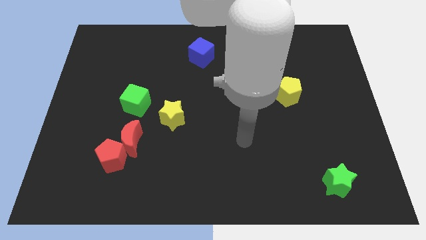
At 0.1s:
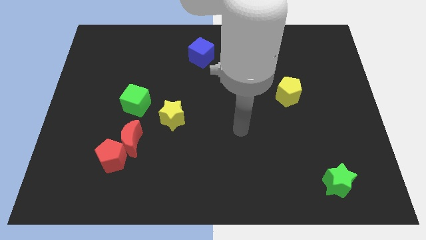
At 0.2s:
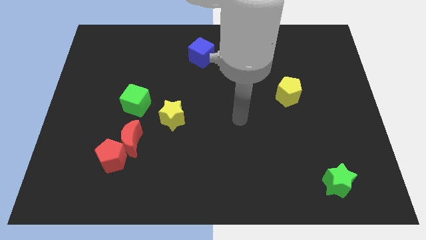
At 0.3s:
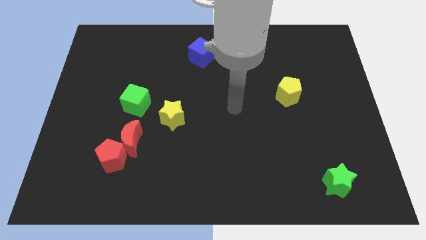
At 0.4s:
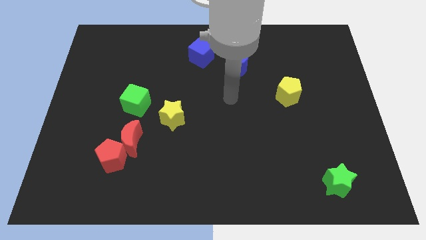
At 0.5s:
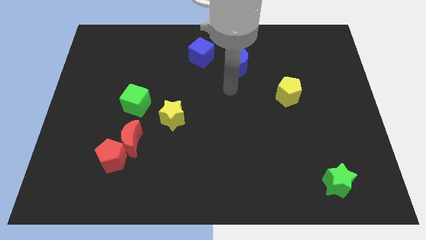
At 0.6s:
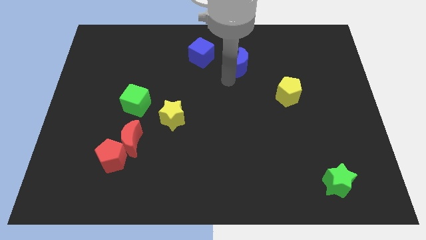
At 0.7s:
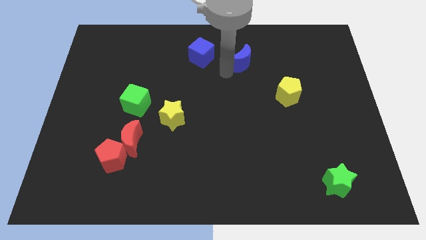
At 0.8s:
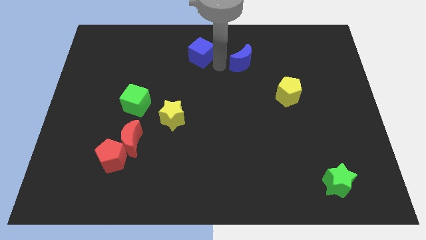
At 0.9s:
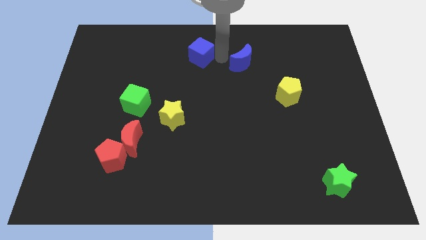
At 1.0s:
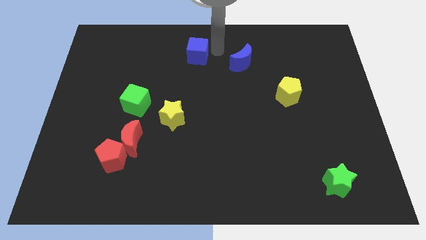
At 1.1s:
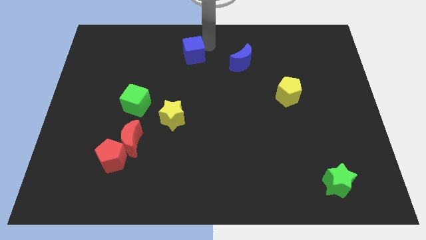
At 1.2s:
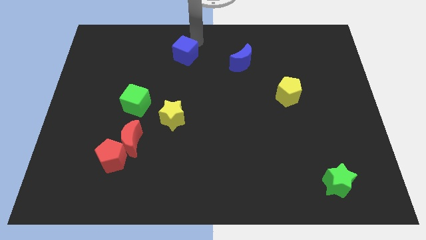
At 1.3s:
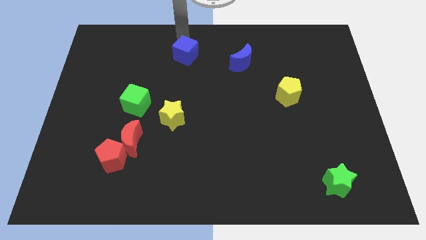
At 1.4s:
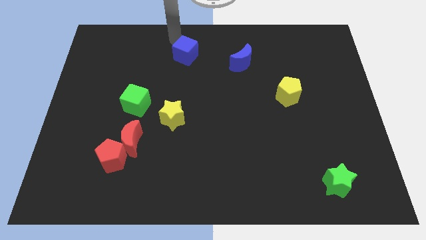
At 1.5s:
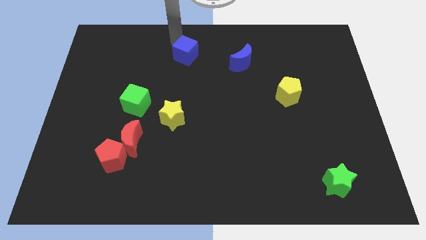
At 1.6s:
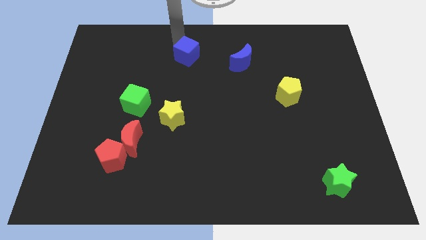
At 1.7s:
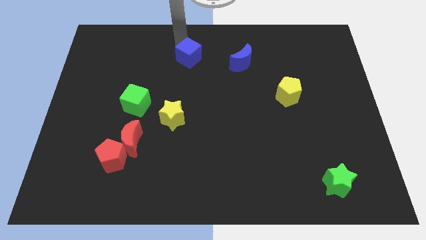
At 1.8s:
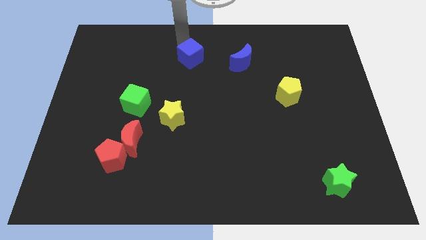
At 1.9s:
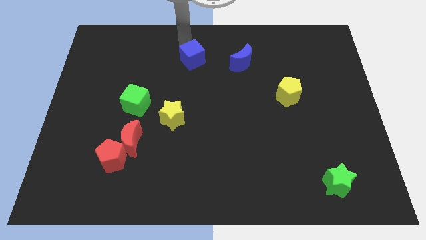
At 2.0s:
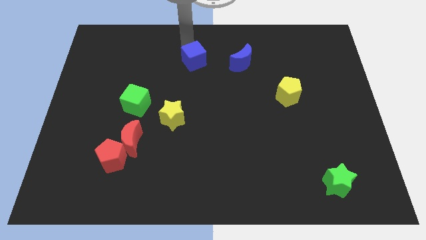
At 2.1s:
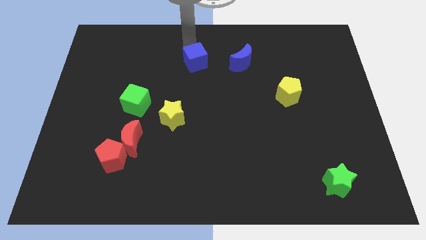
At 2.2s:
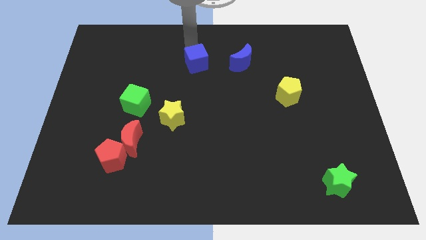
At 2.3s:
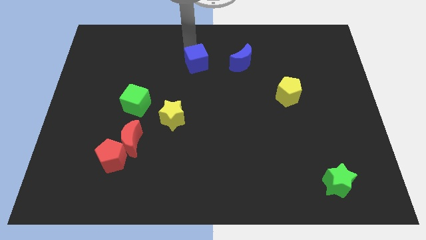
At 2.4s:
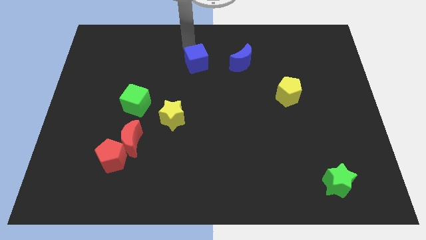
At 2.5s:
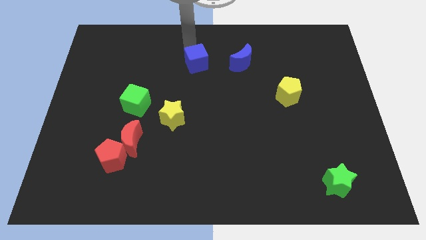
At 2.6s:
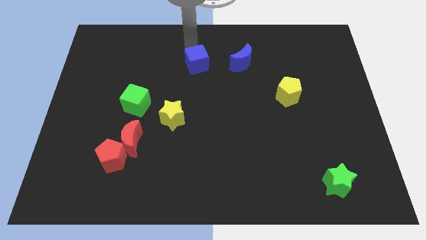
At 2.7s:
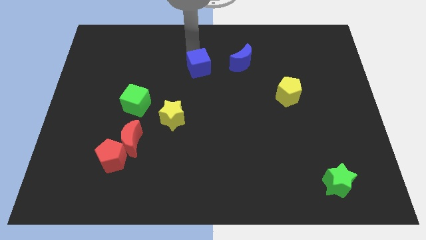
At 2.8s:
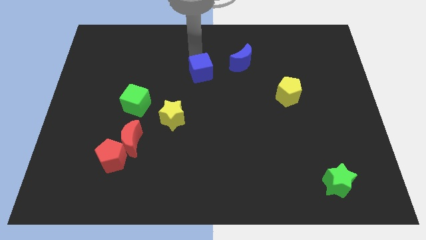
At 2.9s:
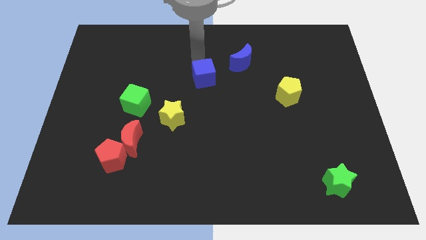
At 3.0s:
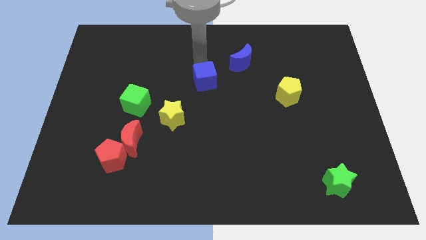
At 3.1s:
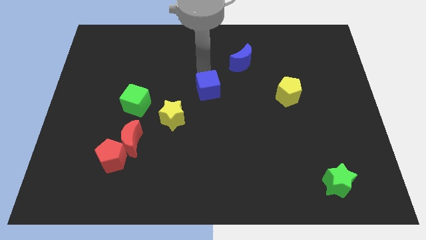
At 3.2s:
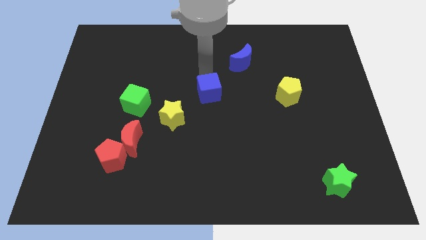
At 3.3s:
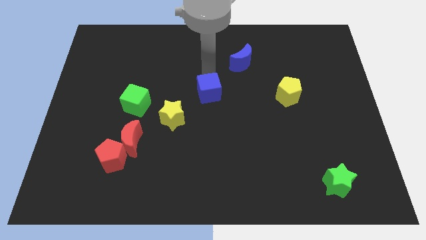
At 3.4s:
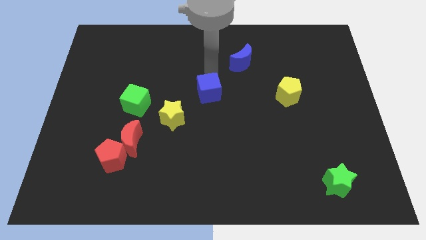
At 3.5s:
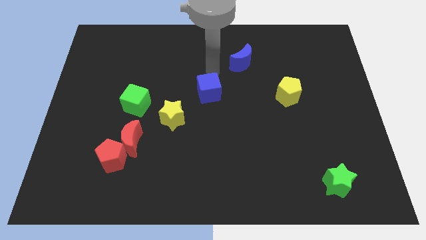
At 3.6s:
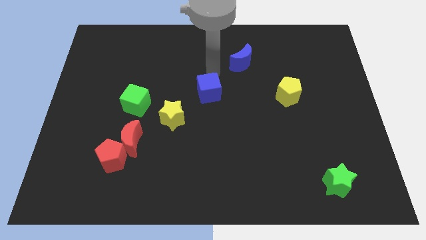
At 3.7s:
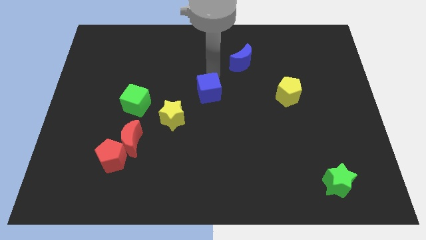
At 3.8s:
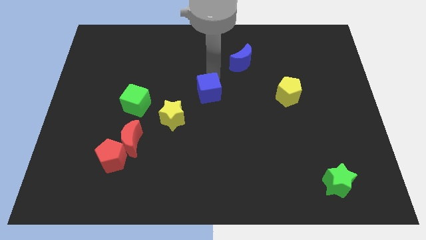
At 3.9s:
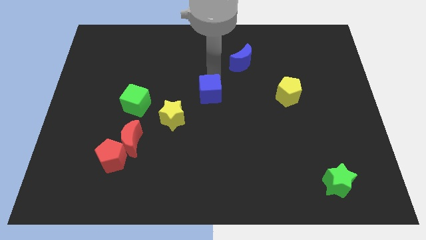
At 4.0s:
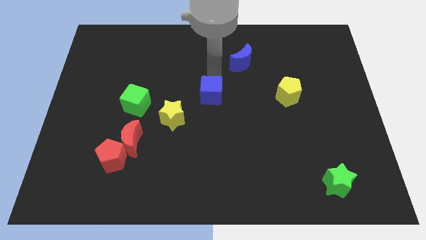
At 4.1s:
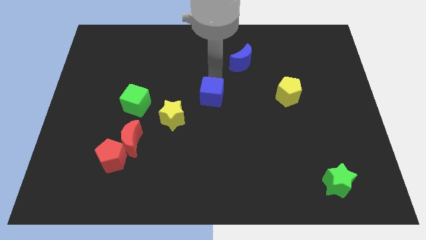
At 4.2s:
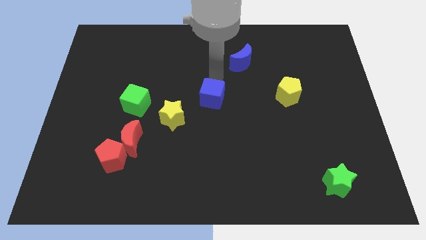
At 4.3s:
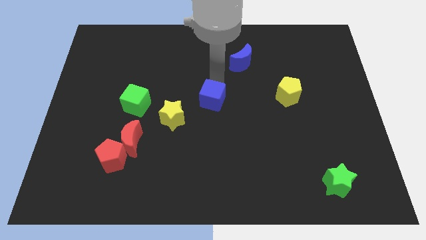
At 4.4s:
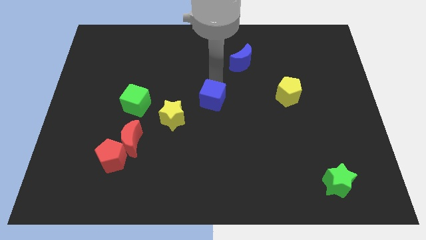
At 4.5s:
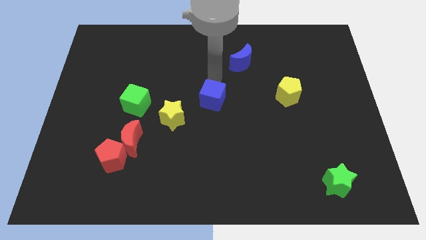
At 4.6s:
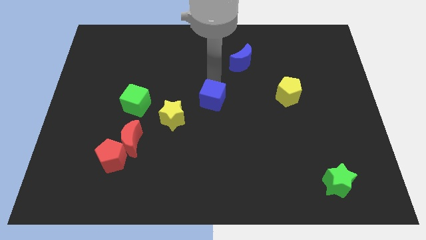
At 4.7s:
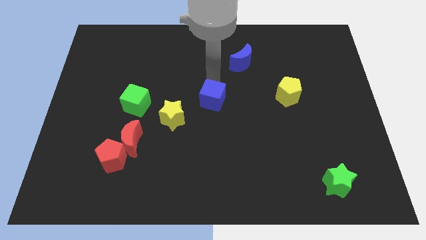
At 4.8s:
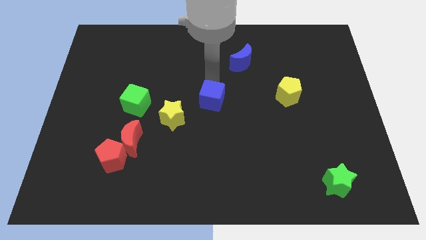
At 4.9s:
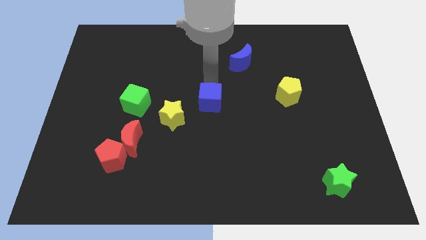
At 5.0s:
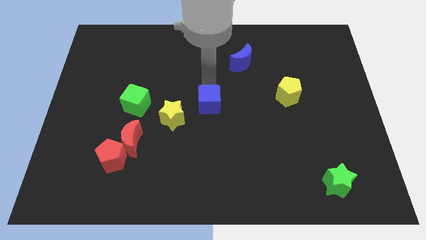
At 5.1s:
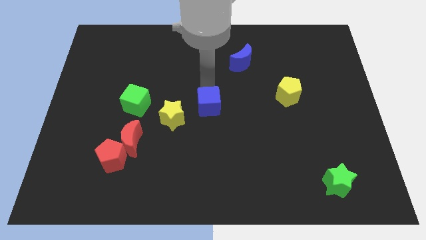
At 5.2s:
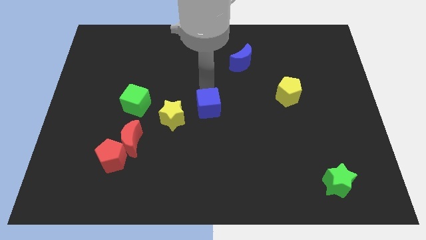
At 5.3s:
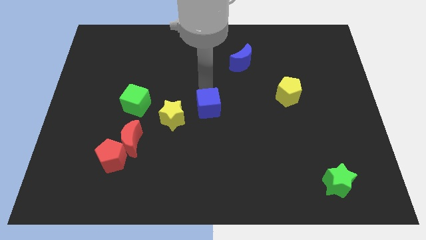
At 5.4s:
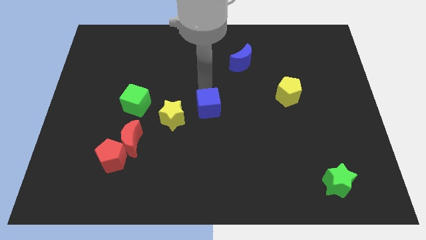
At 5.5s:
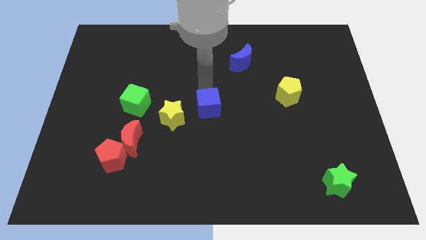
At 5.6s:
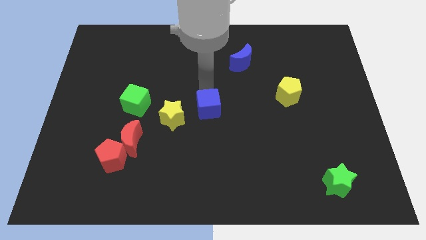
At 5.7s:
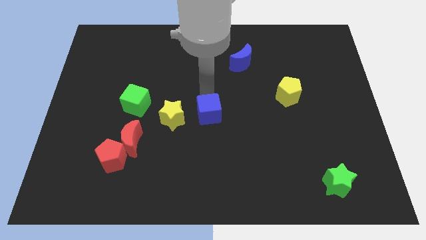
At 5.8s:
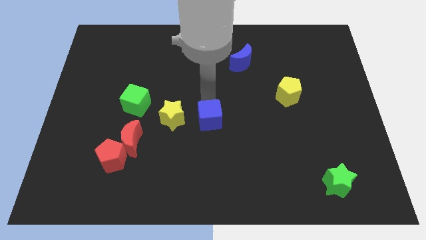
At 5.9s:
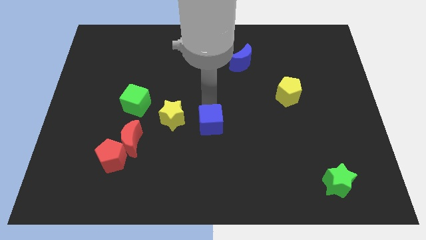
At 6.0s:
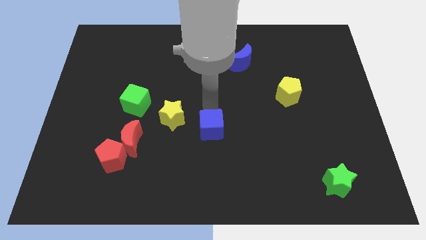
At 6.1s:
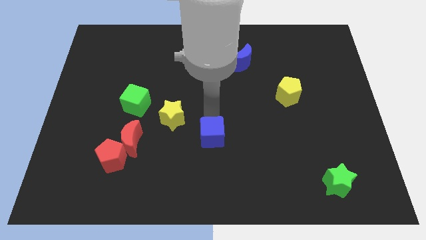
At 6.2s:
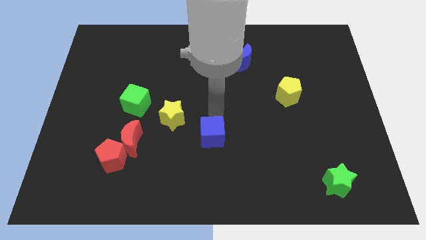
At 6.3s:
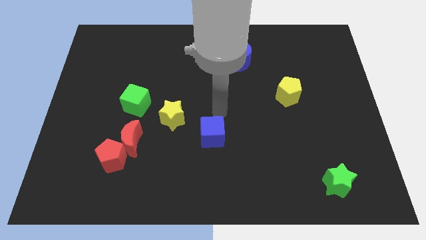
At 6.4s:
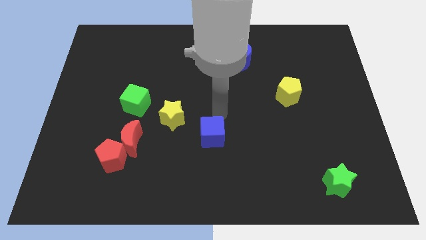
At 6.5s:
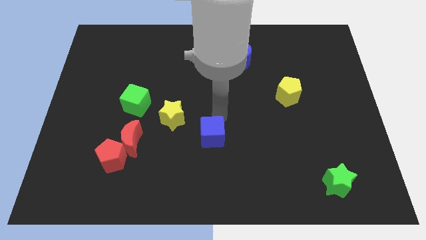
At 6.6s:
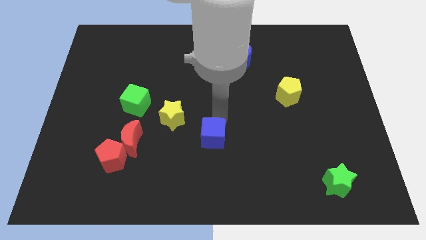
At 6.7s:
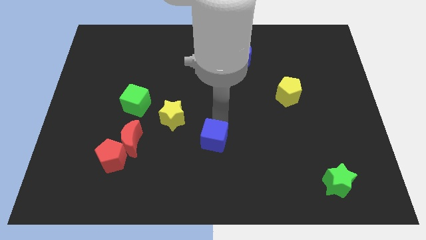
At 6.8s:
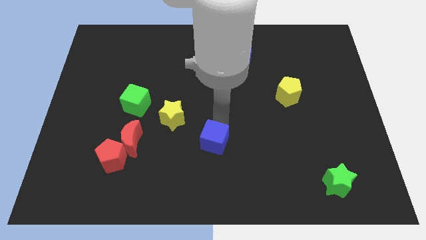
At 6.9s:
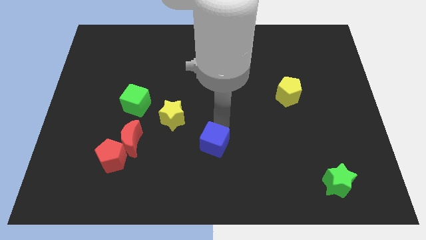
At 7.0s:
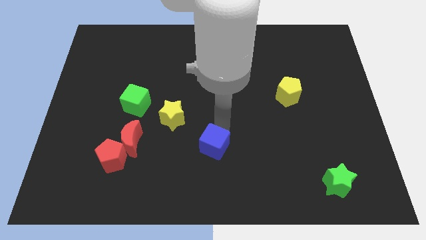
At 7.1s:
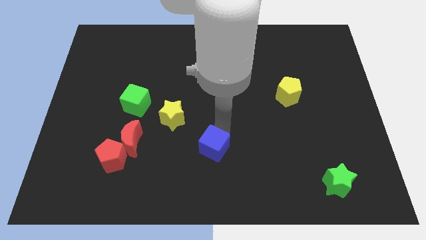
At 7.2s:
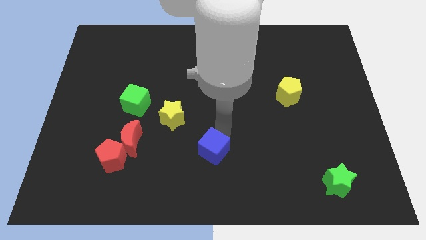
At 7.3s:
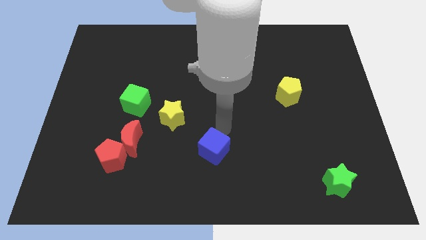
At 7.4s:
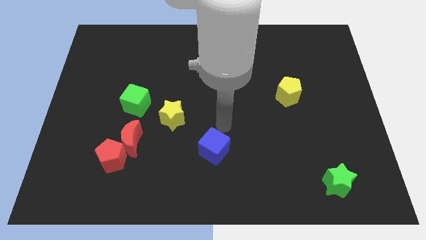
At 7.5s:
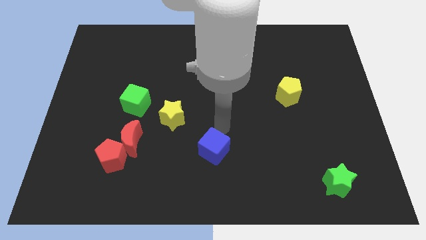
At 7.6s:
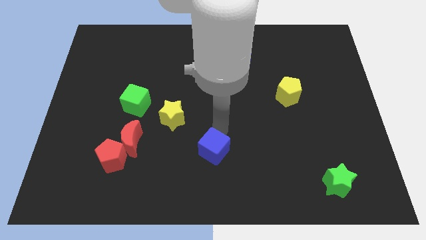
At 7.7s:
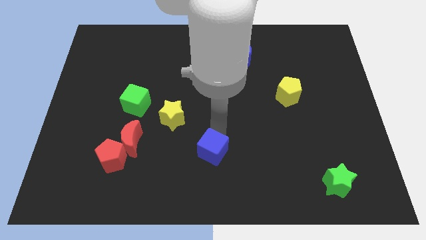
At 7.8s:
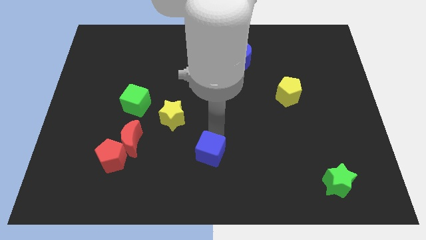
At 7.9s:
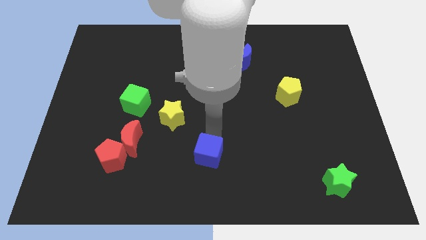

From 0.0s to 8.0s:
move the blue cube to the bottom side

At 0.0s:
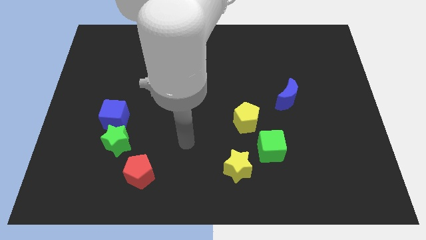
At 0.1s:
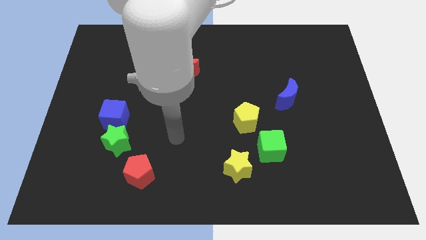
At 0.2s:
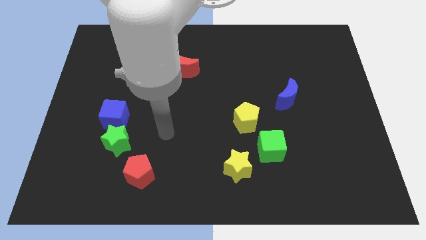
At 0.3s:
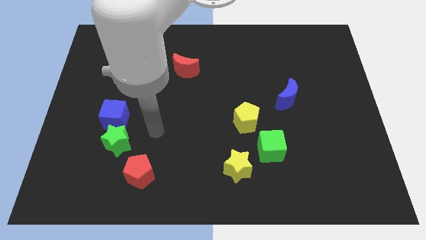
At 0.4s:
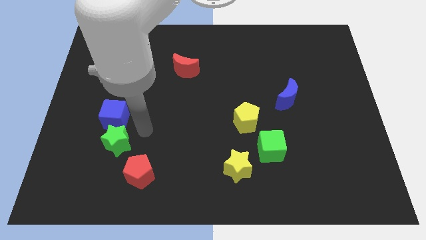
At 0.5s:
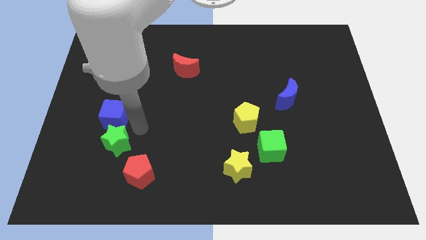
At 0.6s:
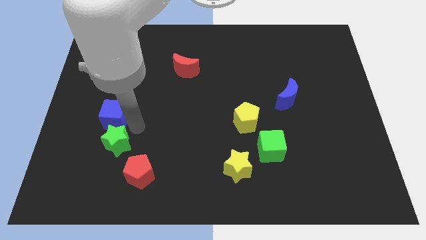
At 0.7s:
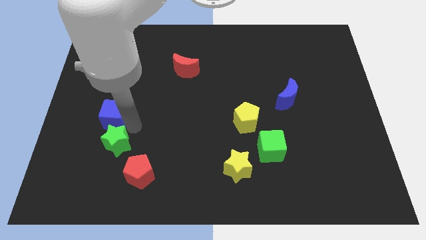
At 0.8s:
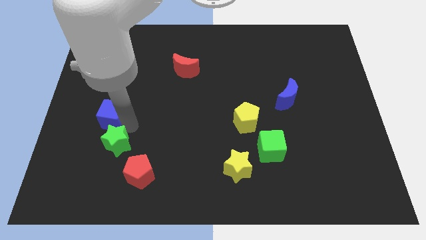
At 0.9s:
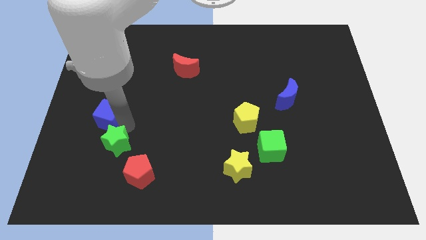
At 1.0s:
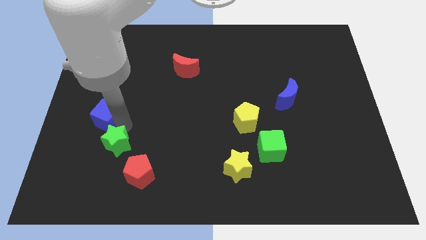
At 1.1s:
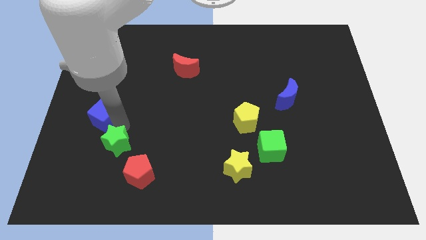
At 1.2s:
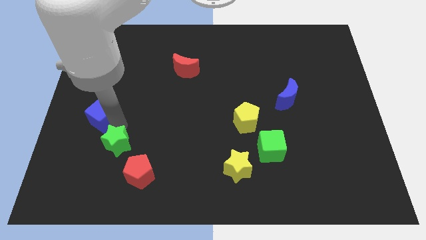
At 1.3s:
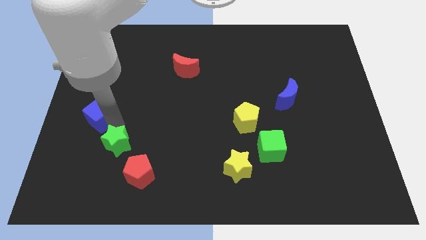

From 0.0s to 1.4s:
slide the blue cube to the left side of the board
